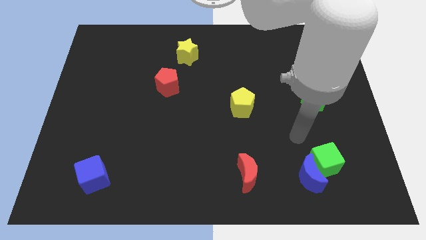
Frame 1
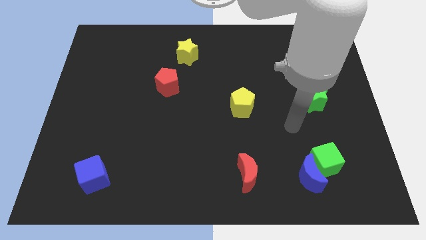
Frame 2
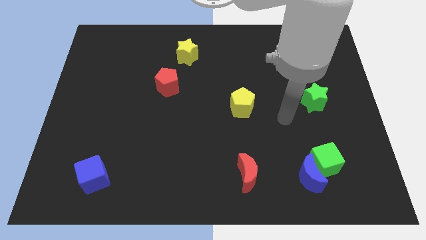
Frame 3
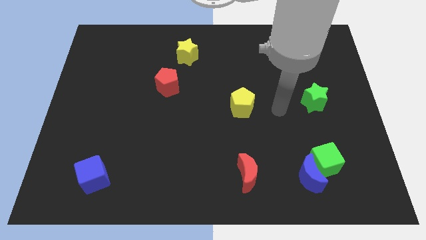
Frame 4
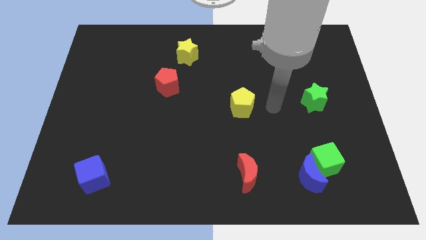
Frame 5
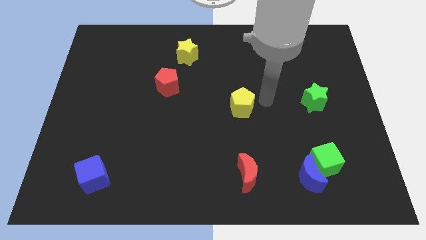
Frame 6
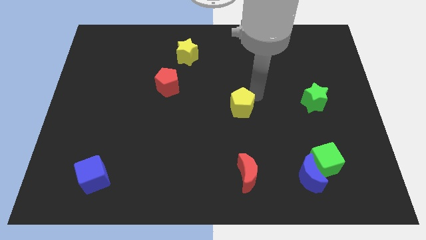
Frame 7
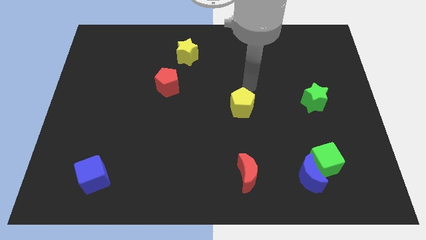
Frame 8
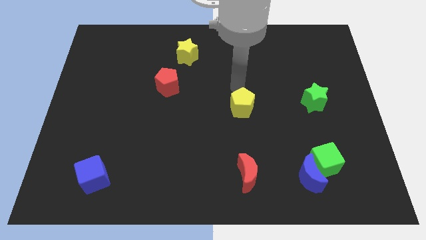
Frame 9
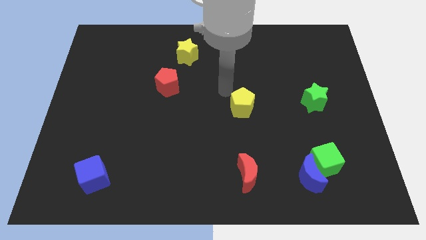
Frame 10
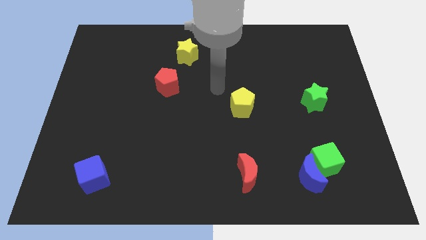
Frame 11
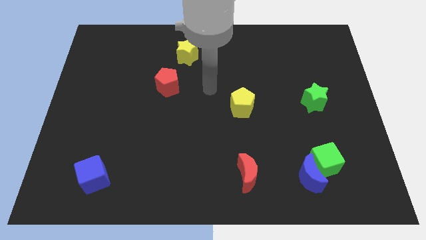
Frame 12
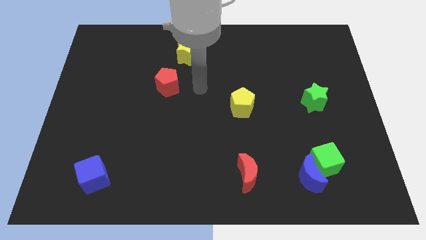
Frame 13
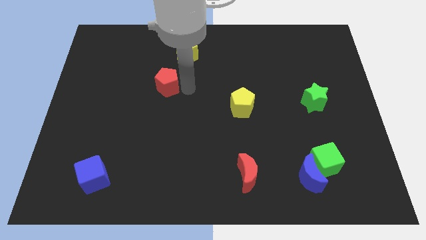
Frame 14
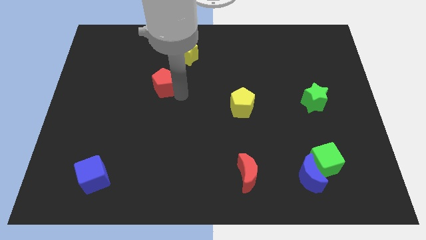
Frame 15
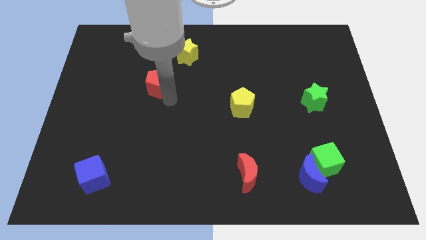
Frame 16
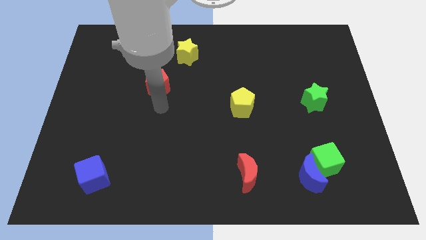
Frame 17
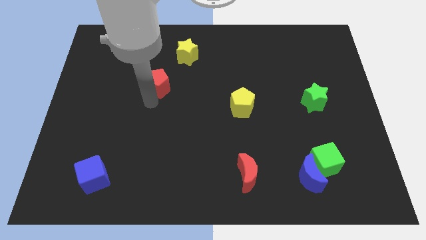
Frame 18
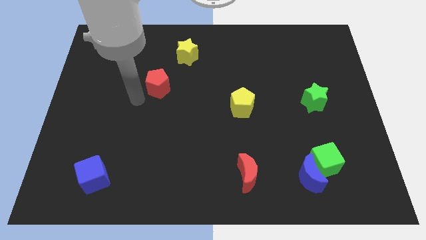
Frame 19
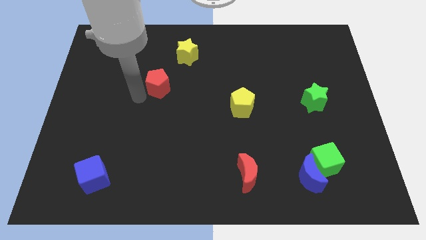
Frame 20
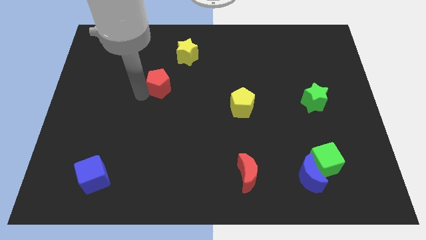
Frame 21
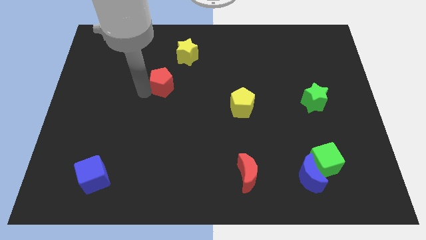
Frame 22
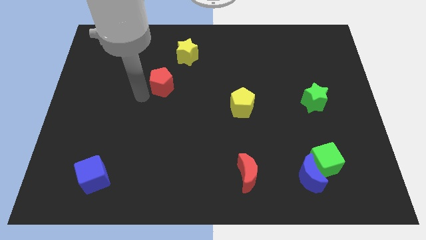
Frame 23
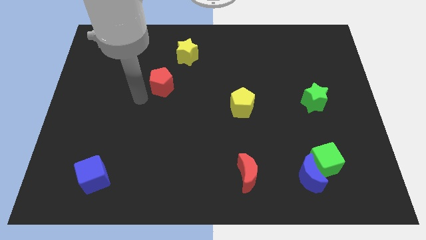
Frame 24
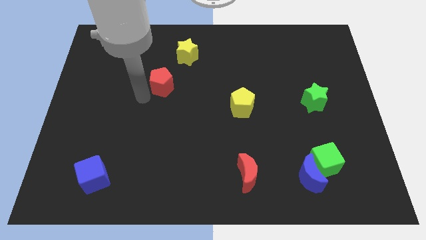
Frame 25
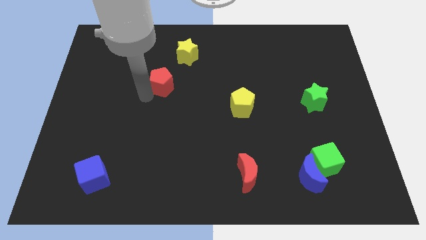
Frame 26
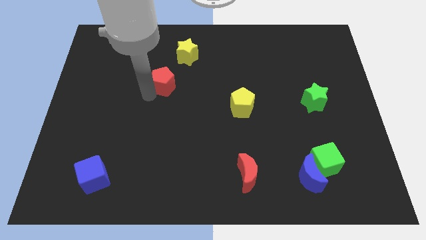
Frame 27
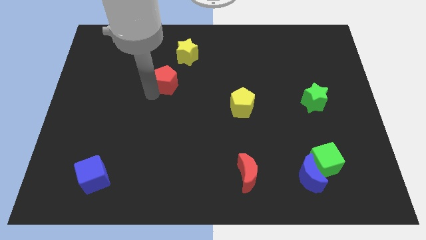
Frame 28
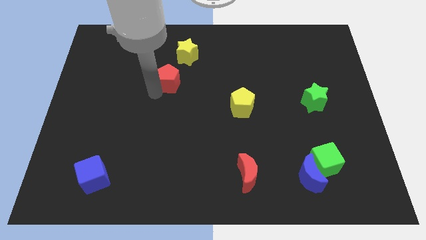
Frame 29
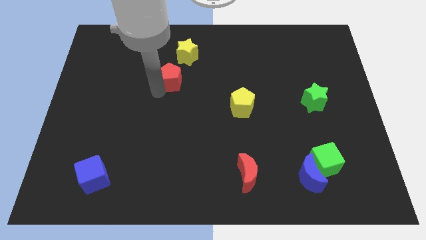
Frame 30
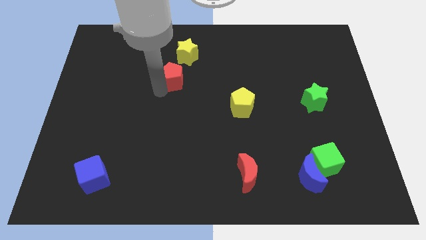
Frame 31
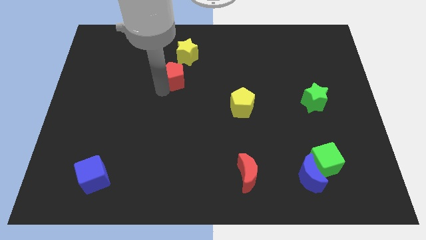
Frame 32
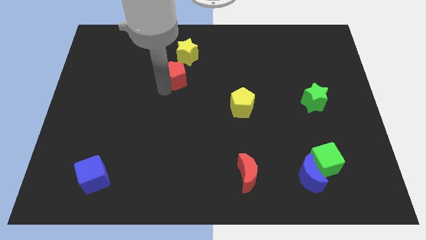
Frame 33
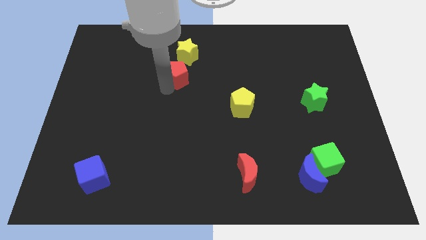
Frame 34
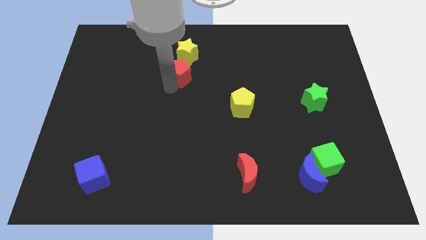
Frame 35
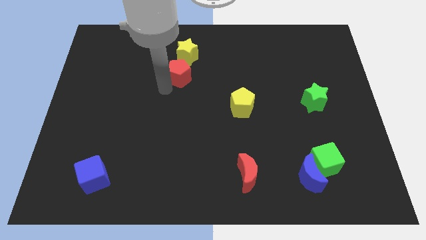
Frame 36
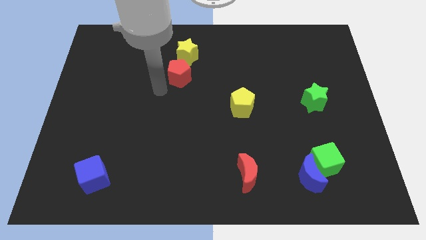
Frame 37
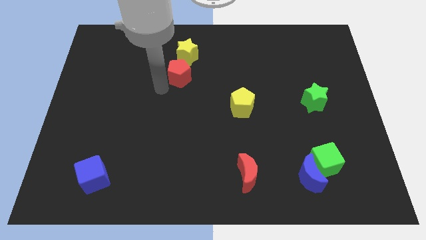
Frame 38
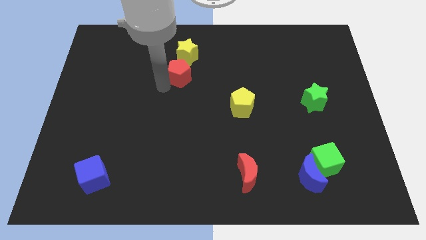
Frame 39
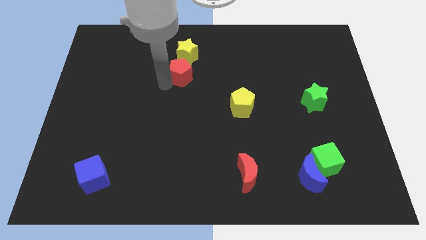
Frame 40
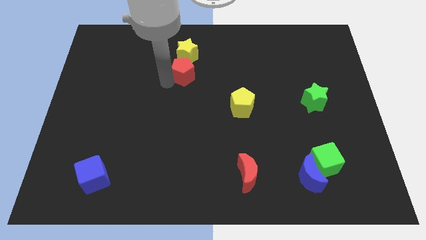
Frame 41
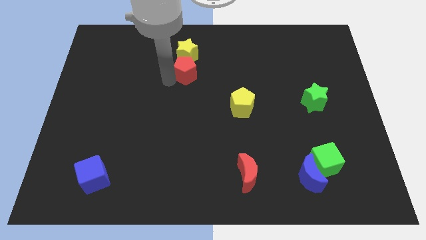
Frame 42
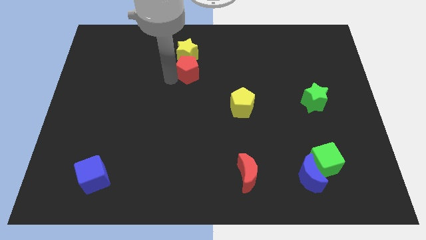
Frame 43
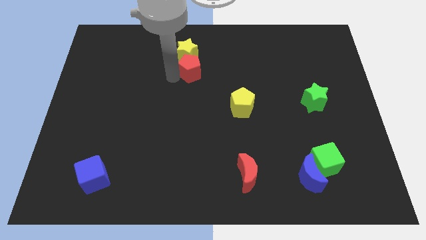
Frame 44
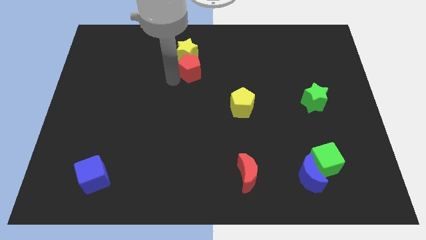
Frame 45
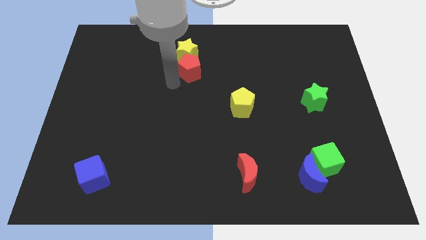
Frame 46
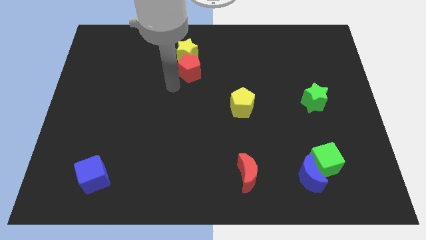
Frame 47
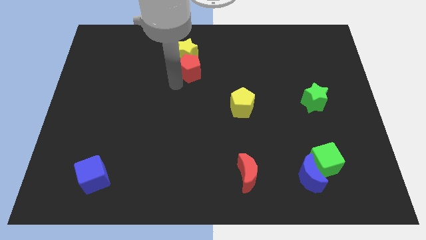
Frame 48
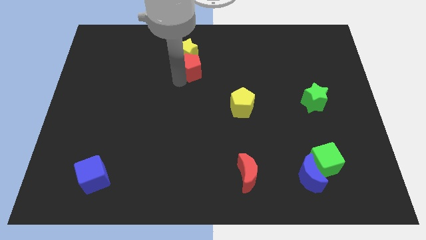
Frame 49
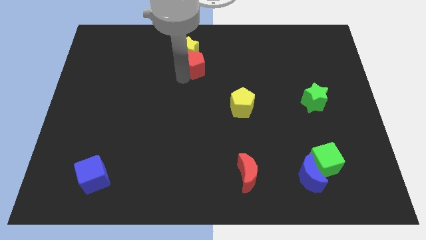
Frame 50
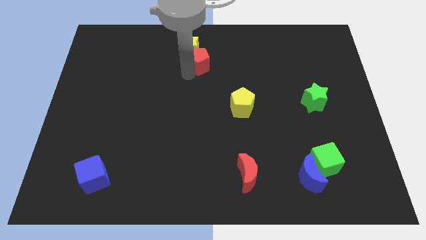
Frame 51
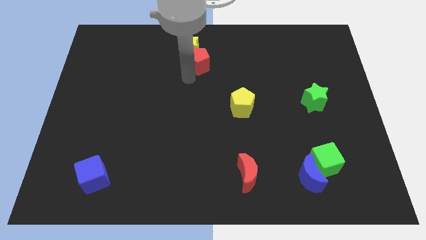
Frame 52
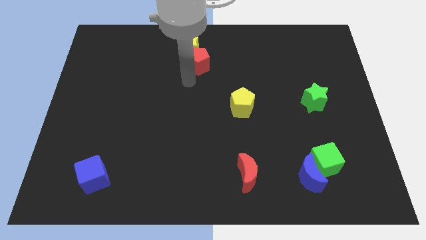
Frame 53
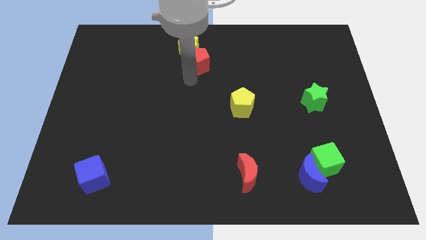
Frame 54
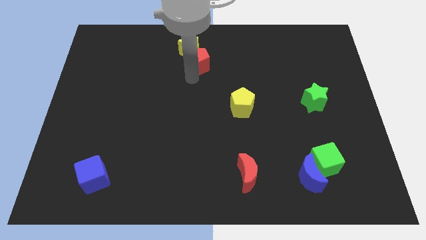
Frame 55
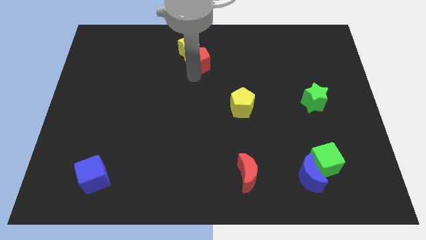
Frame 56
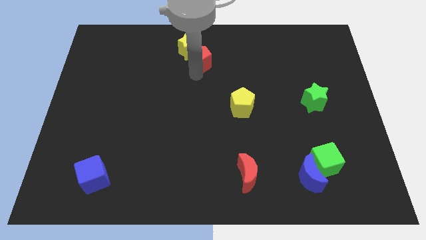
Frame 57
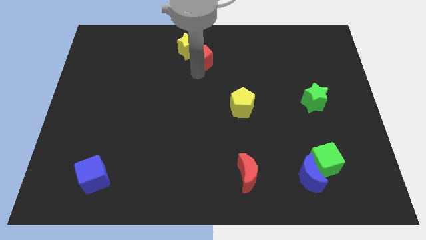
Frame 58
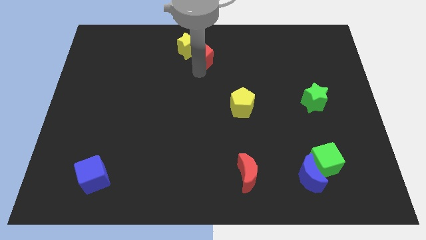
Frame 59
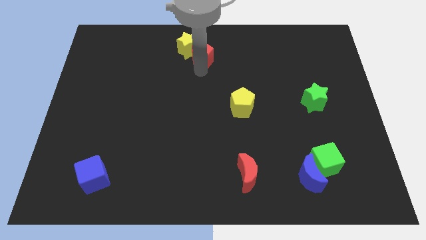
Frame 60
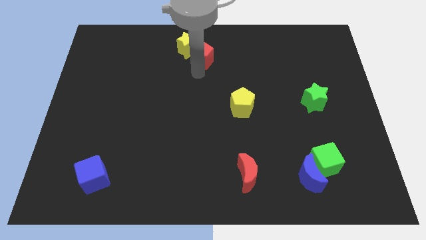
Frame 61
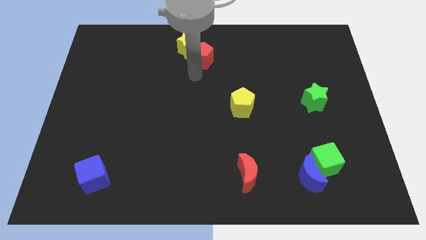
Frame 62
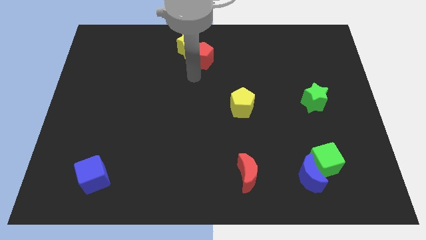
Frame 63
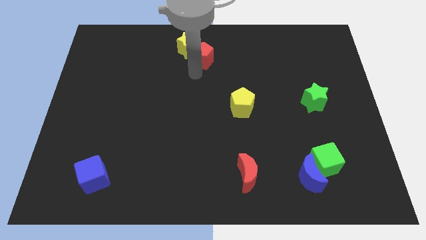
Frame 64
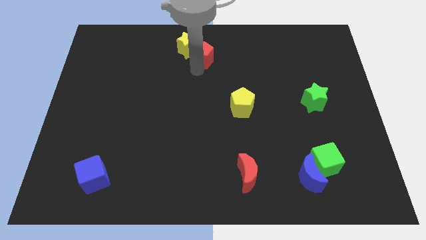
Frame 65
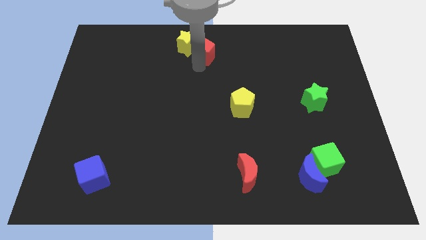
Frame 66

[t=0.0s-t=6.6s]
push the red pentagon to the top side
